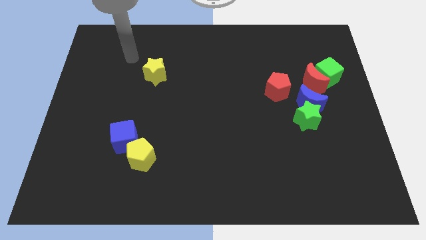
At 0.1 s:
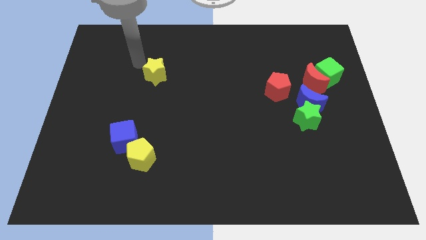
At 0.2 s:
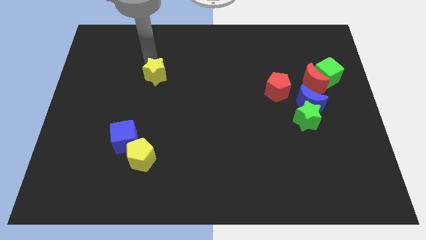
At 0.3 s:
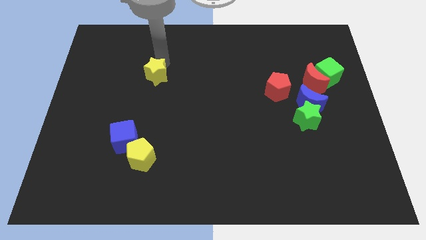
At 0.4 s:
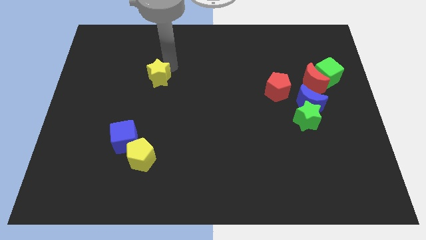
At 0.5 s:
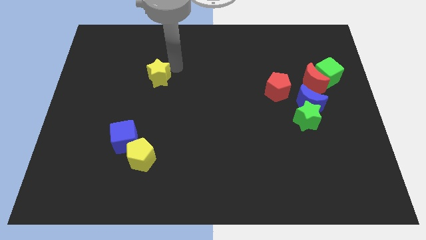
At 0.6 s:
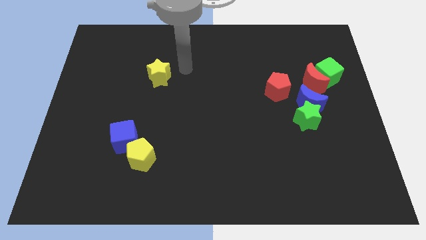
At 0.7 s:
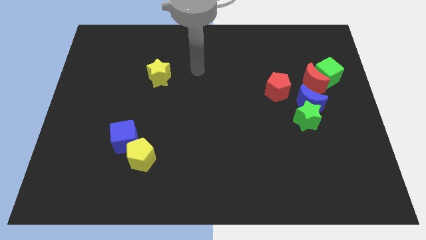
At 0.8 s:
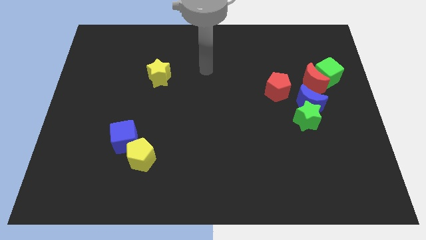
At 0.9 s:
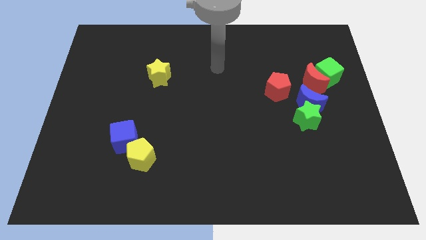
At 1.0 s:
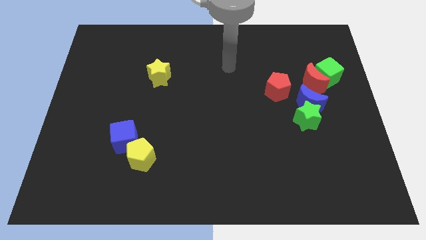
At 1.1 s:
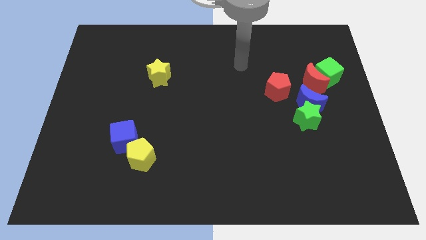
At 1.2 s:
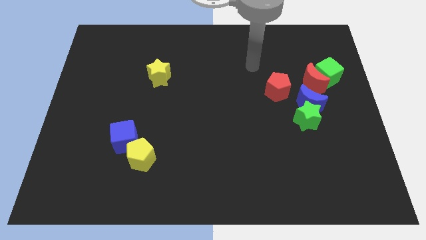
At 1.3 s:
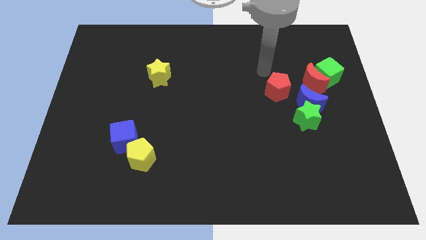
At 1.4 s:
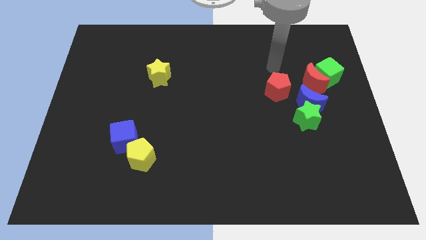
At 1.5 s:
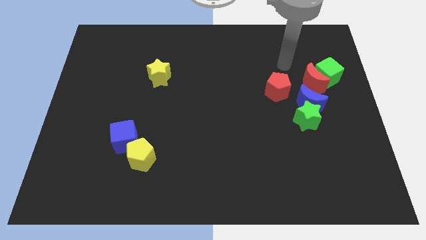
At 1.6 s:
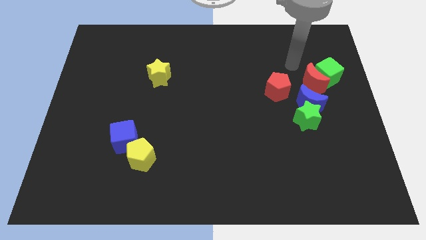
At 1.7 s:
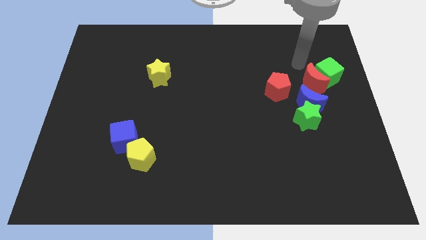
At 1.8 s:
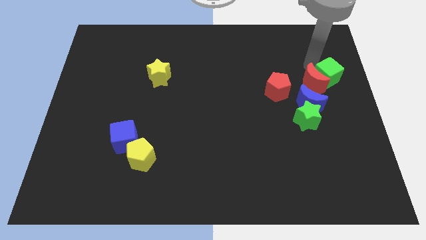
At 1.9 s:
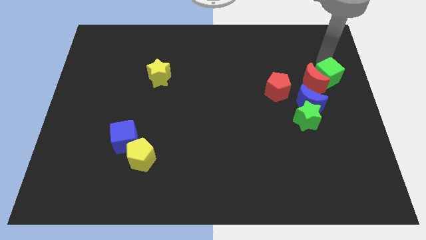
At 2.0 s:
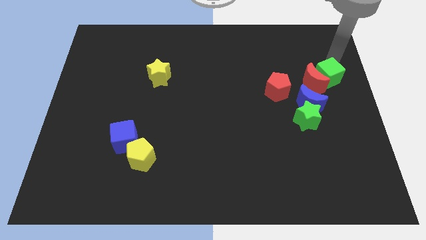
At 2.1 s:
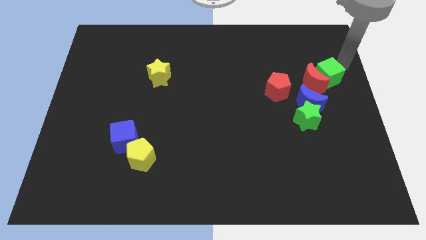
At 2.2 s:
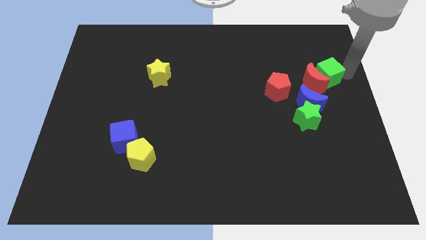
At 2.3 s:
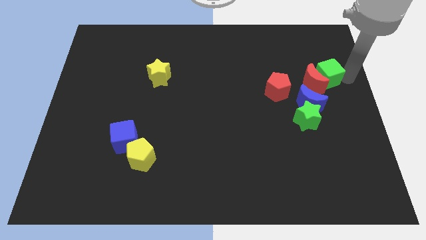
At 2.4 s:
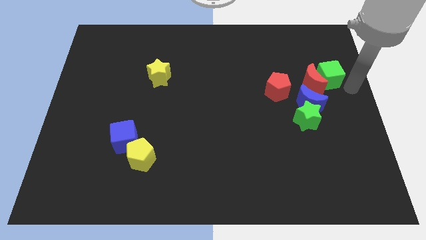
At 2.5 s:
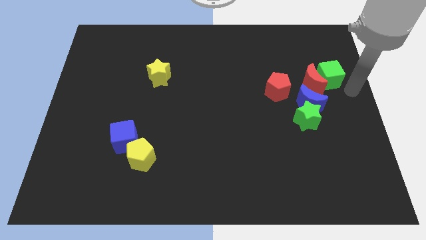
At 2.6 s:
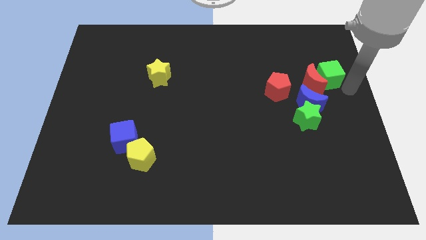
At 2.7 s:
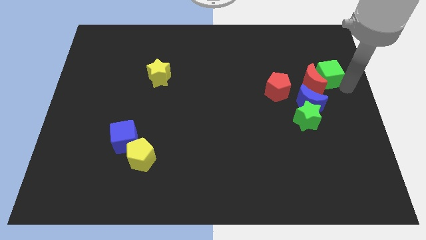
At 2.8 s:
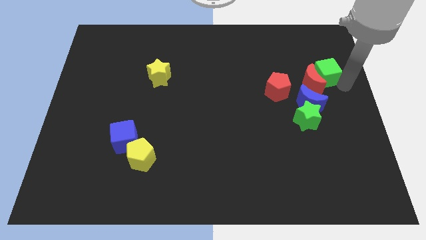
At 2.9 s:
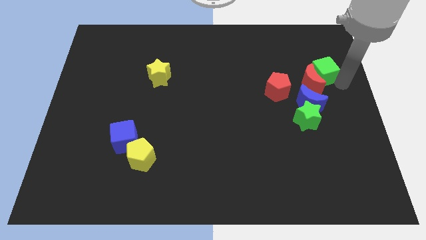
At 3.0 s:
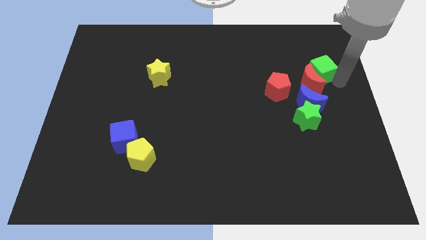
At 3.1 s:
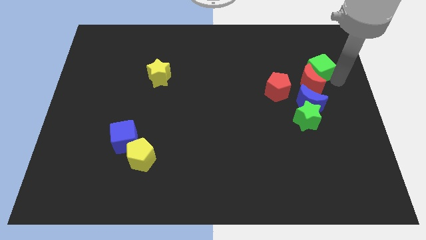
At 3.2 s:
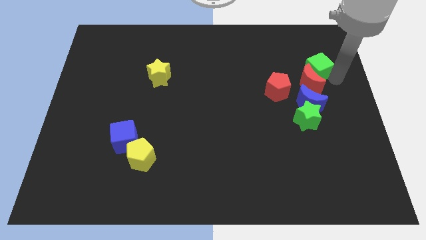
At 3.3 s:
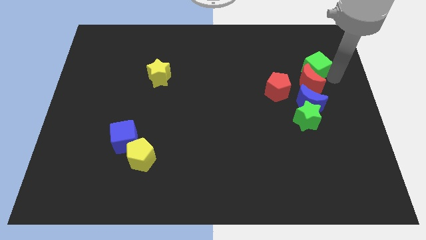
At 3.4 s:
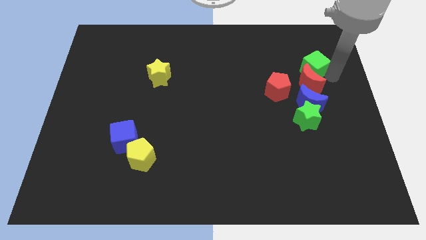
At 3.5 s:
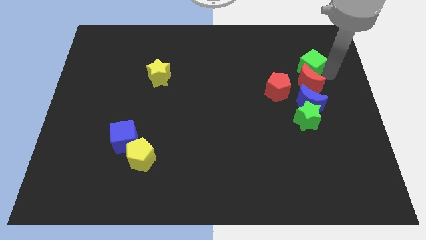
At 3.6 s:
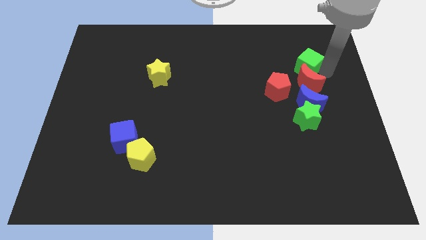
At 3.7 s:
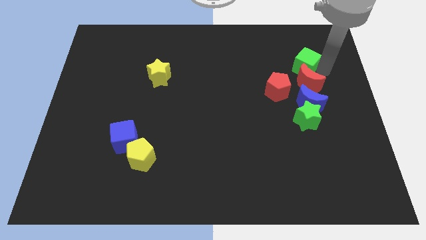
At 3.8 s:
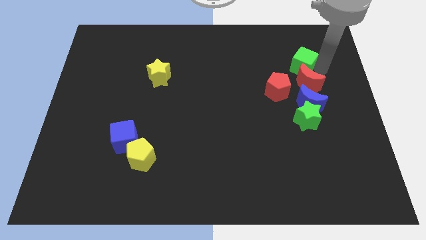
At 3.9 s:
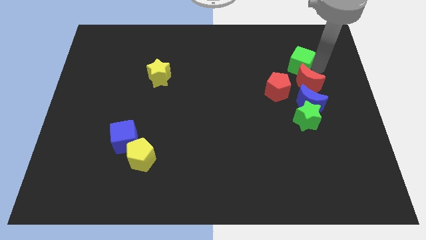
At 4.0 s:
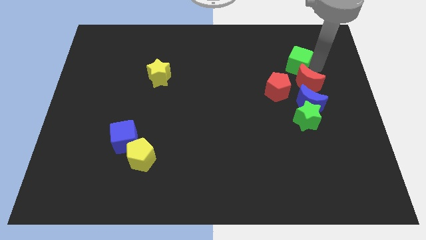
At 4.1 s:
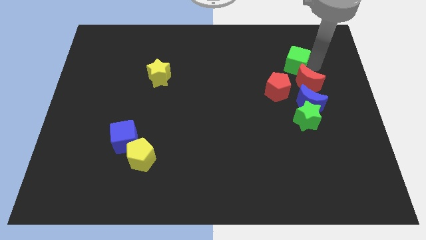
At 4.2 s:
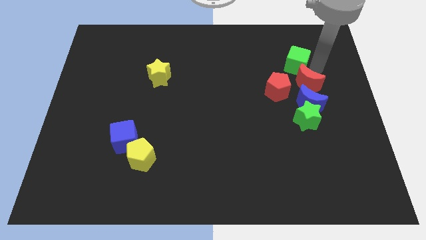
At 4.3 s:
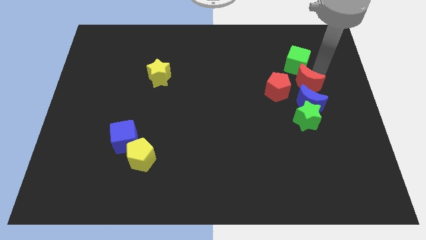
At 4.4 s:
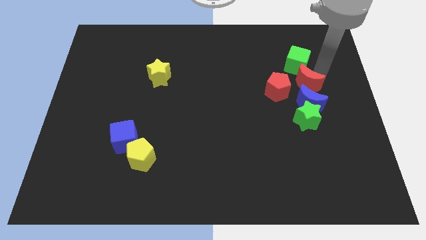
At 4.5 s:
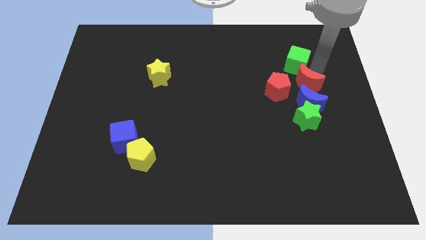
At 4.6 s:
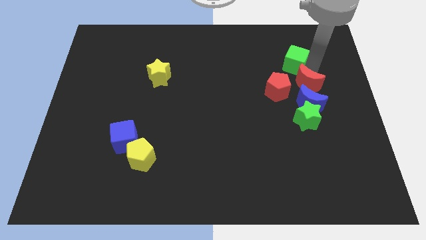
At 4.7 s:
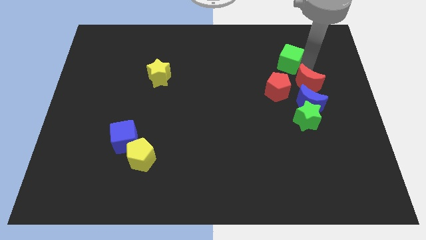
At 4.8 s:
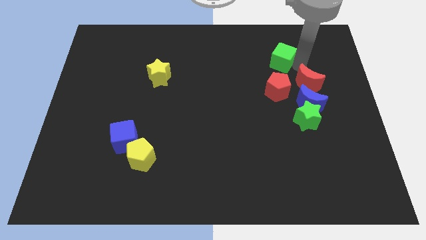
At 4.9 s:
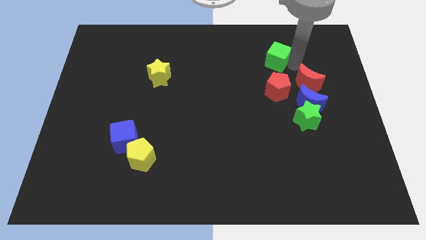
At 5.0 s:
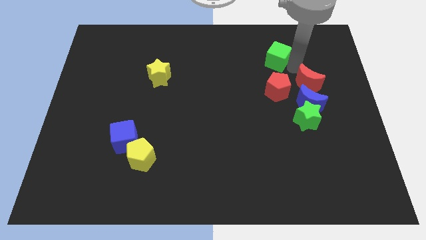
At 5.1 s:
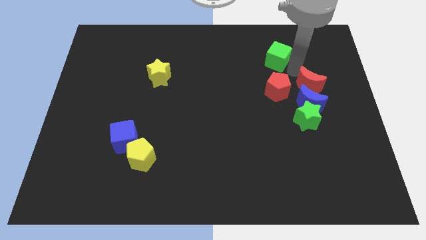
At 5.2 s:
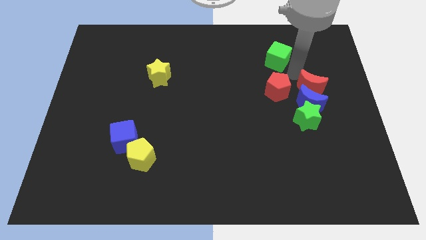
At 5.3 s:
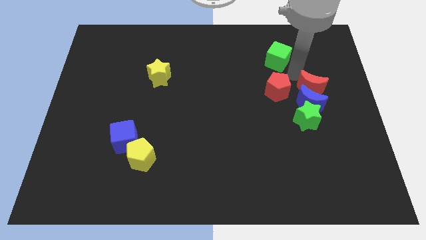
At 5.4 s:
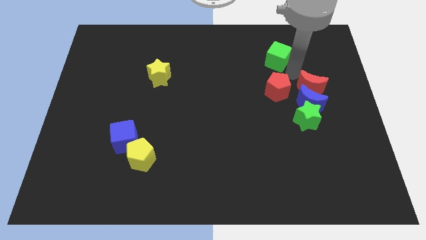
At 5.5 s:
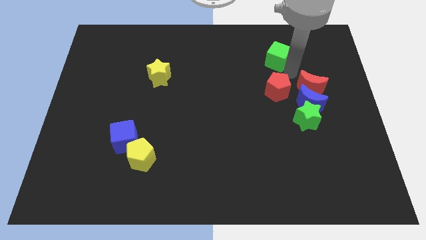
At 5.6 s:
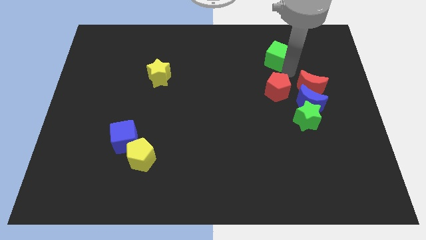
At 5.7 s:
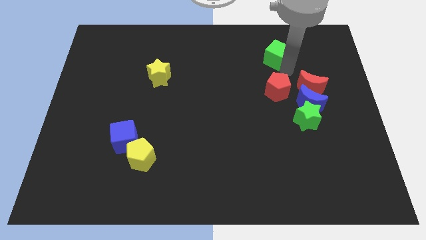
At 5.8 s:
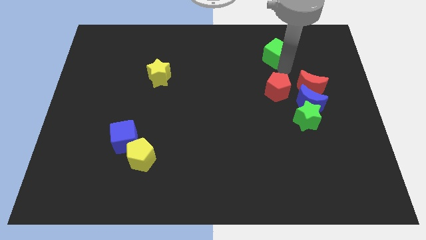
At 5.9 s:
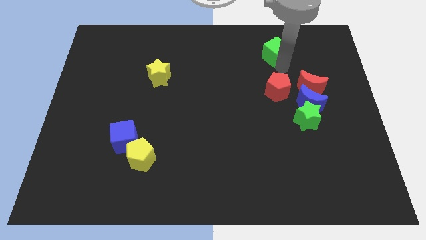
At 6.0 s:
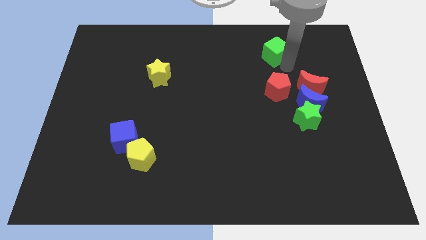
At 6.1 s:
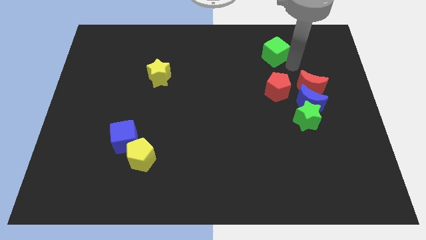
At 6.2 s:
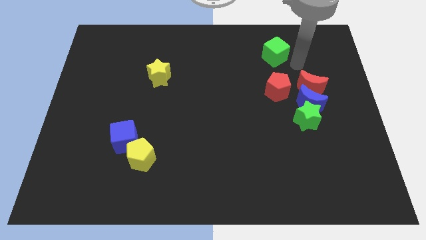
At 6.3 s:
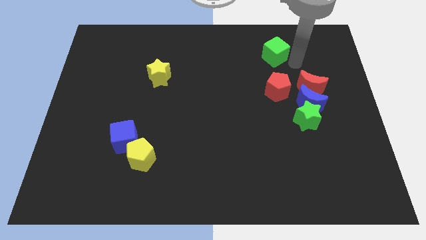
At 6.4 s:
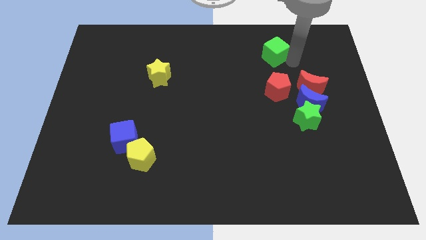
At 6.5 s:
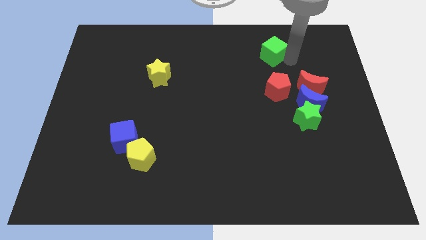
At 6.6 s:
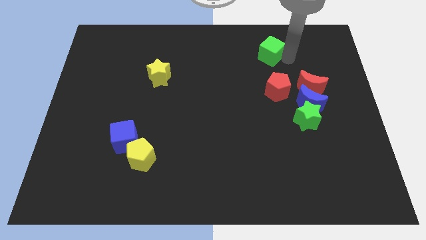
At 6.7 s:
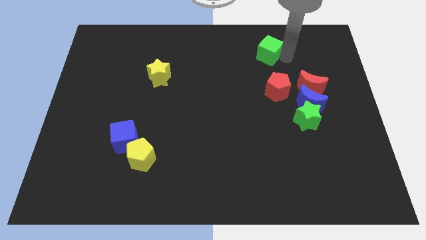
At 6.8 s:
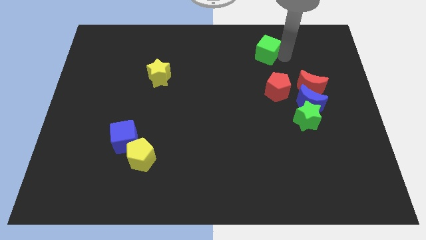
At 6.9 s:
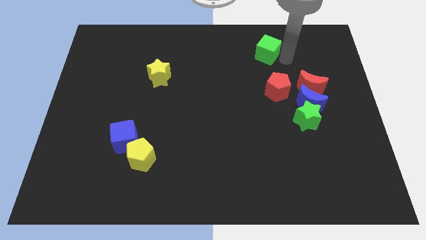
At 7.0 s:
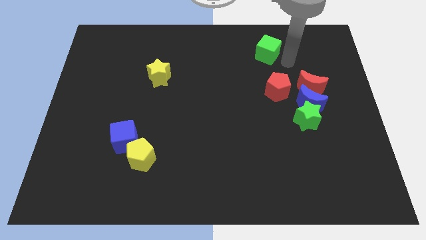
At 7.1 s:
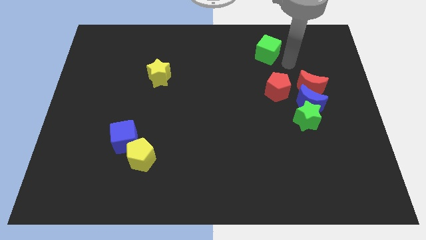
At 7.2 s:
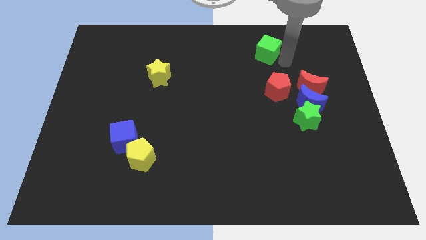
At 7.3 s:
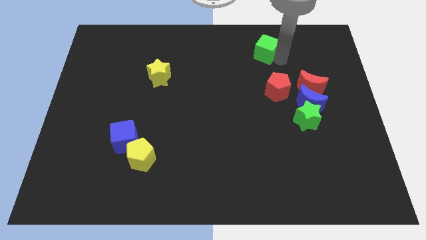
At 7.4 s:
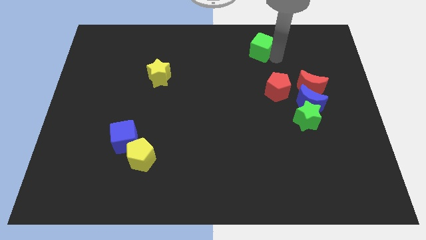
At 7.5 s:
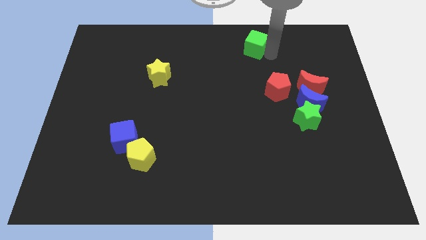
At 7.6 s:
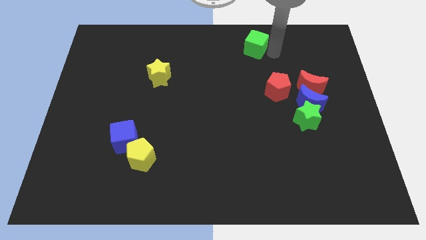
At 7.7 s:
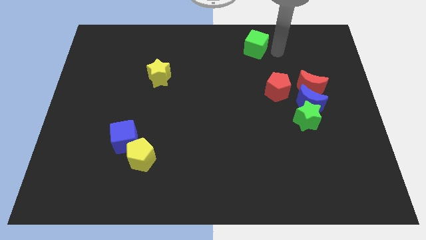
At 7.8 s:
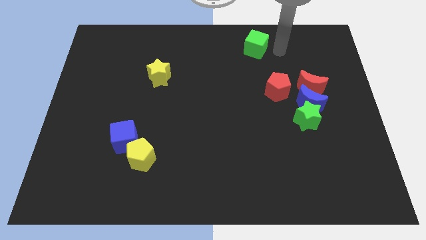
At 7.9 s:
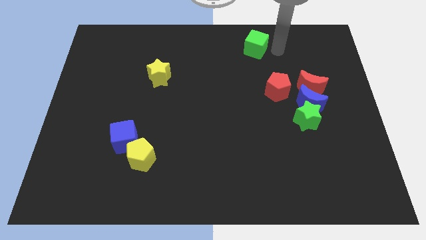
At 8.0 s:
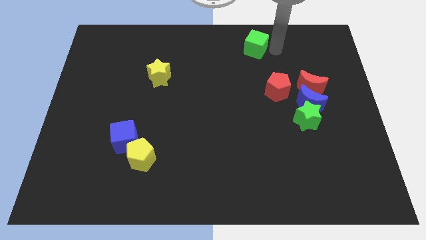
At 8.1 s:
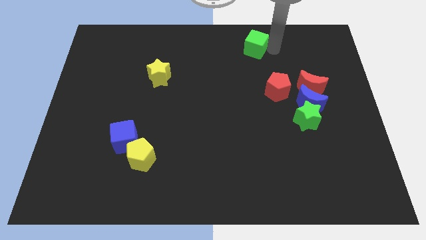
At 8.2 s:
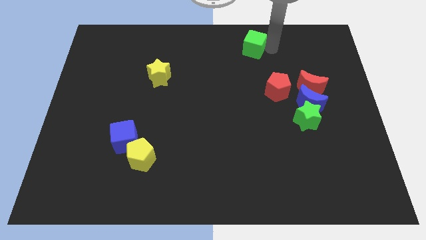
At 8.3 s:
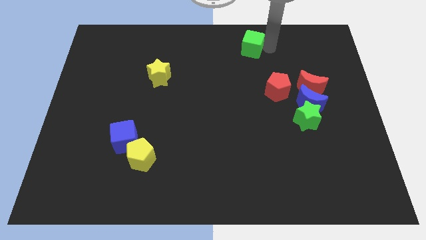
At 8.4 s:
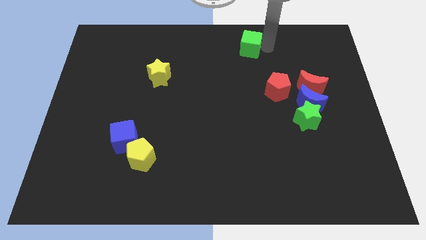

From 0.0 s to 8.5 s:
push the green cube to the top
